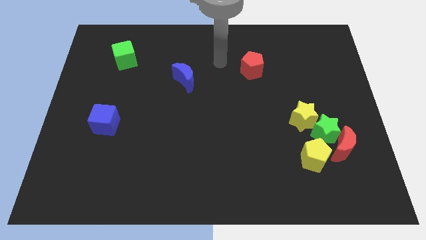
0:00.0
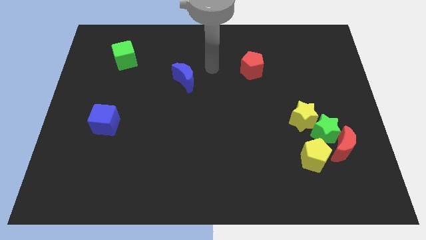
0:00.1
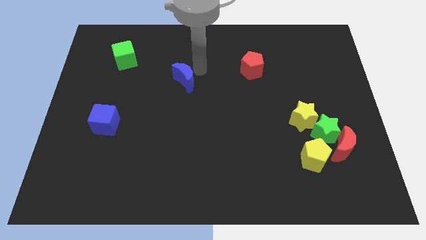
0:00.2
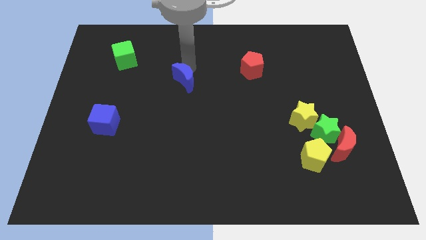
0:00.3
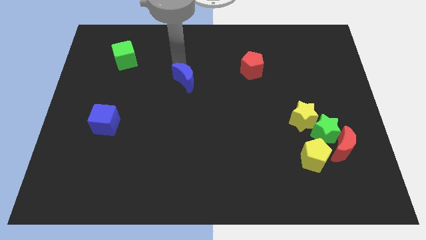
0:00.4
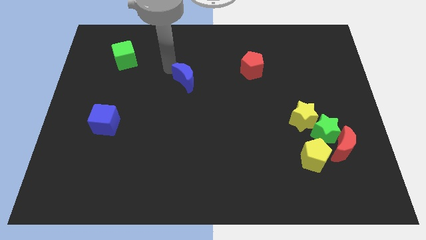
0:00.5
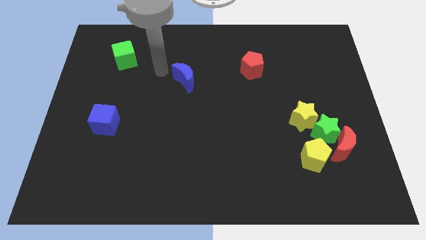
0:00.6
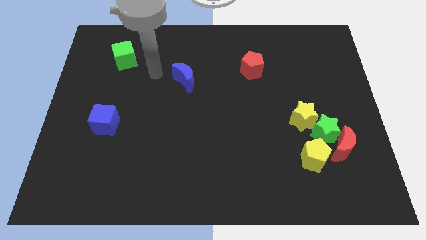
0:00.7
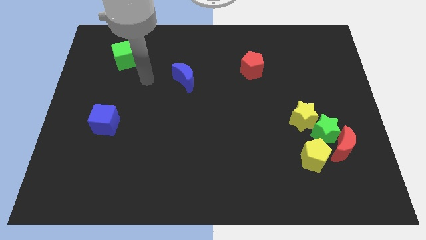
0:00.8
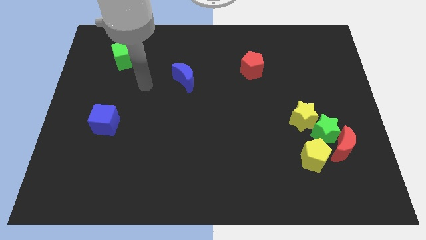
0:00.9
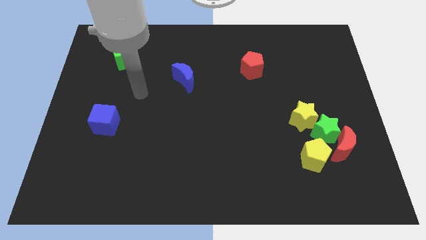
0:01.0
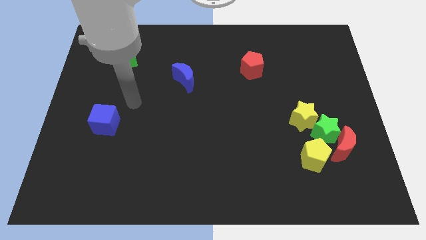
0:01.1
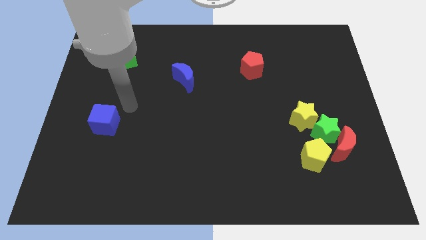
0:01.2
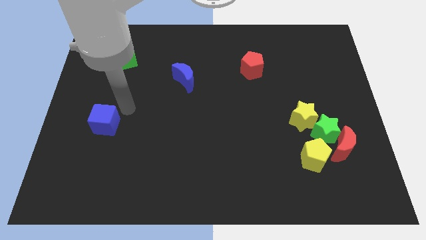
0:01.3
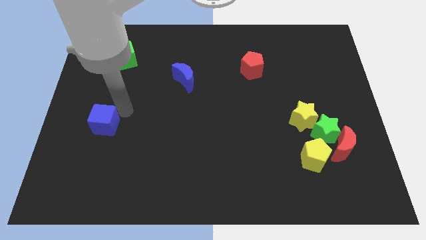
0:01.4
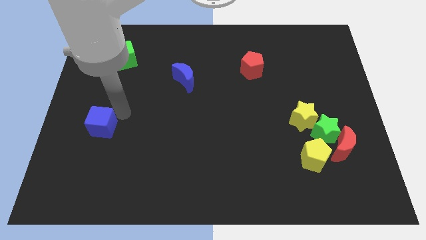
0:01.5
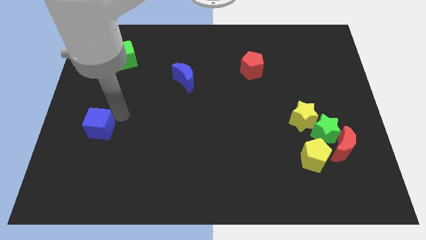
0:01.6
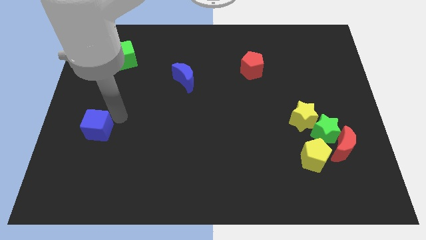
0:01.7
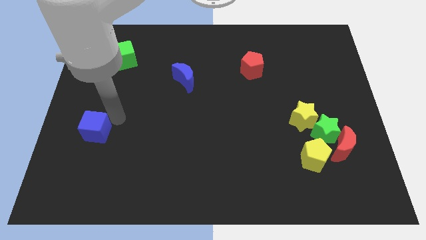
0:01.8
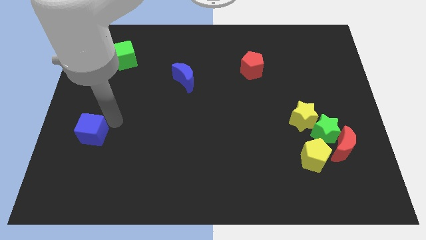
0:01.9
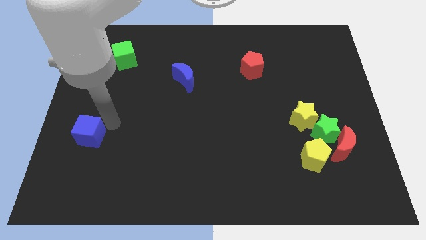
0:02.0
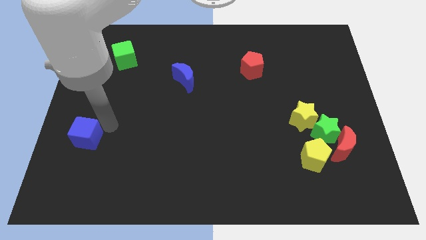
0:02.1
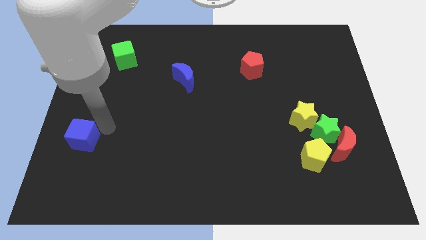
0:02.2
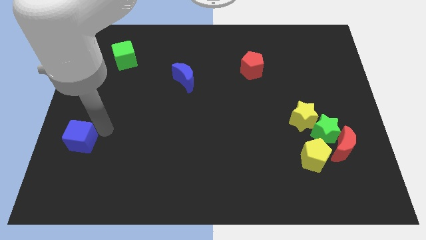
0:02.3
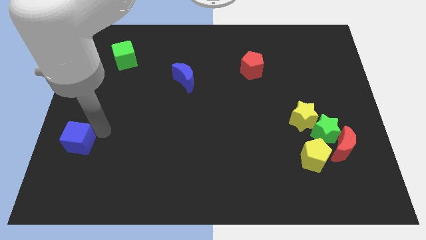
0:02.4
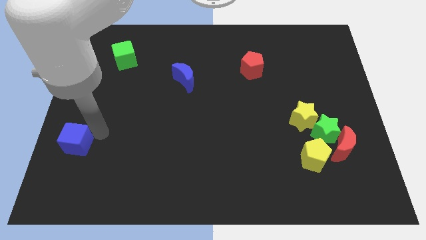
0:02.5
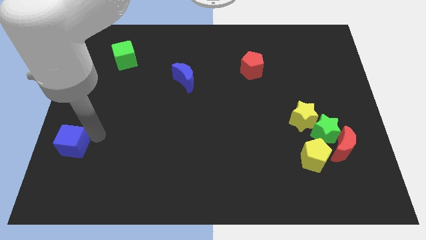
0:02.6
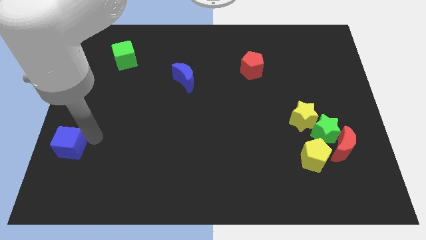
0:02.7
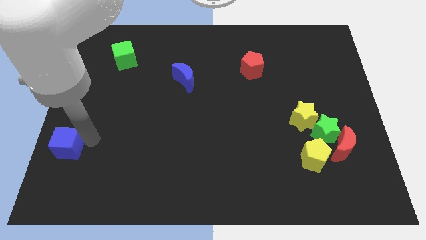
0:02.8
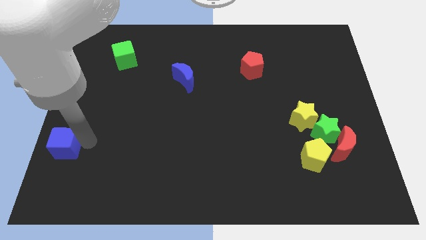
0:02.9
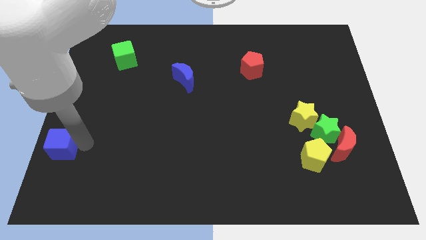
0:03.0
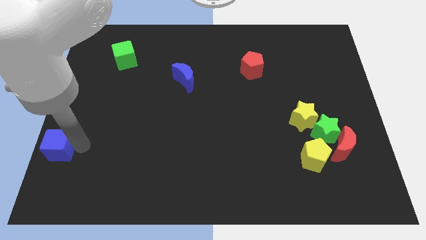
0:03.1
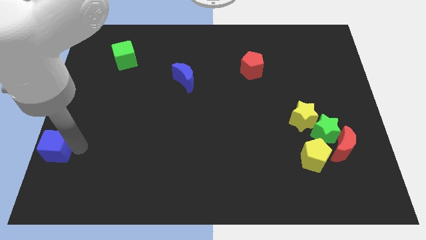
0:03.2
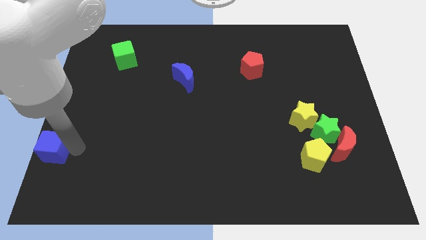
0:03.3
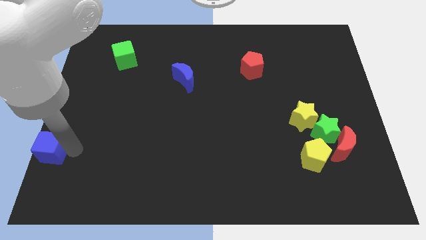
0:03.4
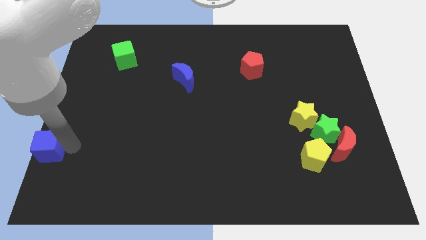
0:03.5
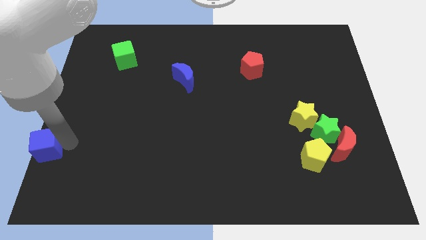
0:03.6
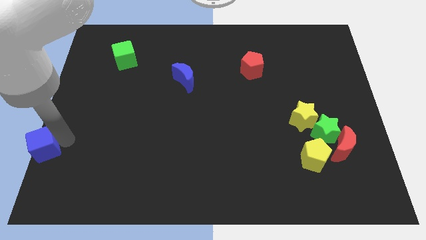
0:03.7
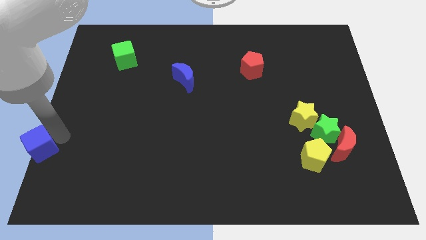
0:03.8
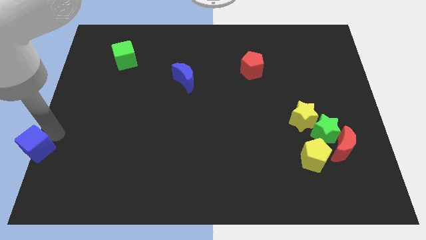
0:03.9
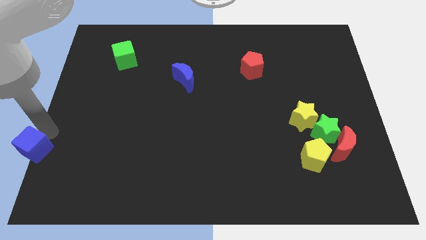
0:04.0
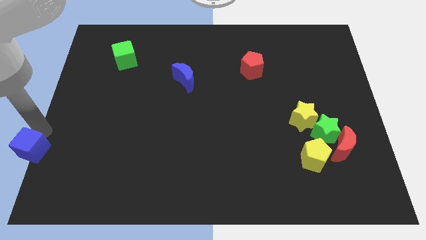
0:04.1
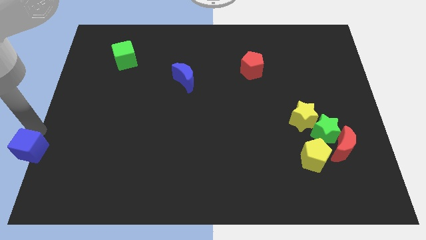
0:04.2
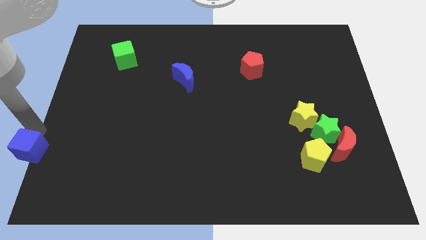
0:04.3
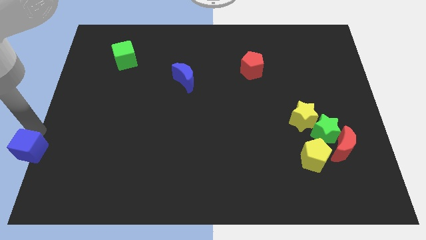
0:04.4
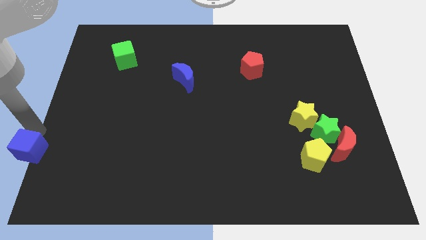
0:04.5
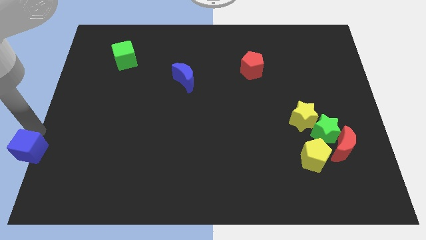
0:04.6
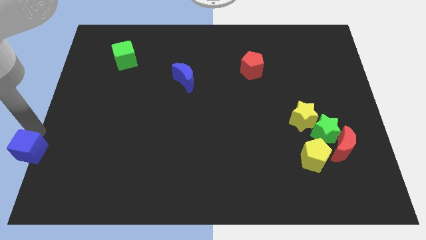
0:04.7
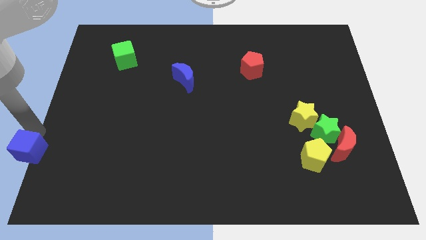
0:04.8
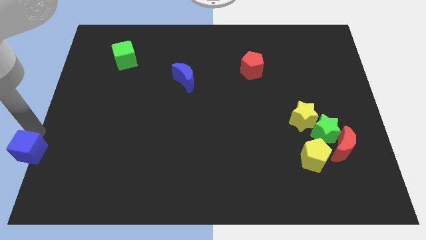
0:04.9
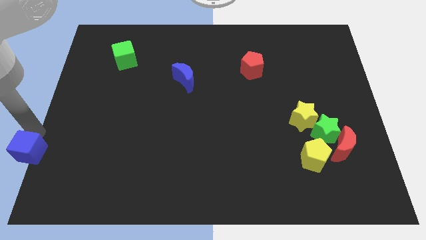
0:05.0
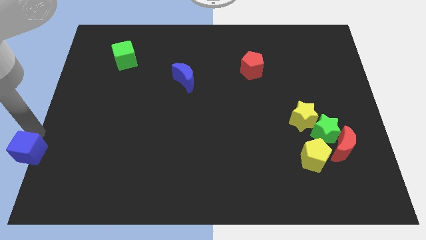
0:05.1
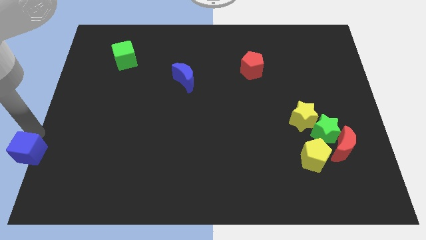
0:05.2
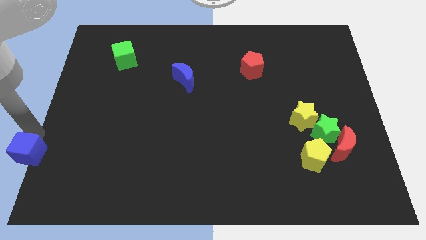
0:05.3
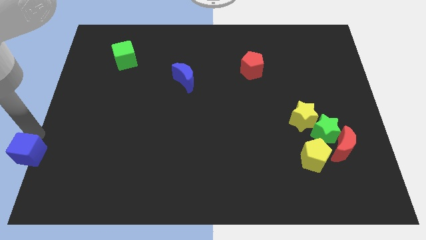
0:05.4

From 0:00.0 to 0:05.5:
slide the blue cube to the bottom left

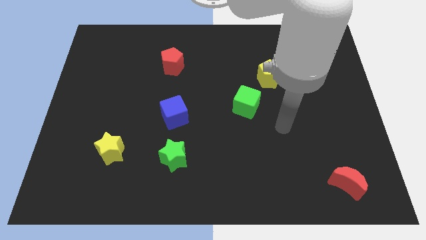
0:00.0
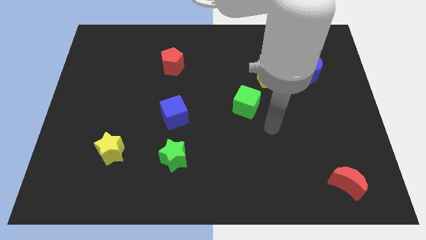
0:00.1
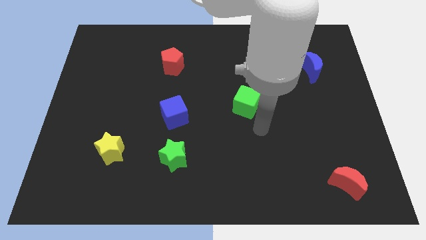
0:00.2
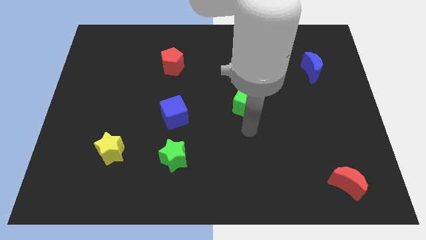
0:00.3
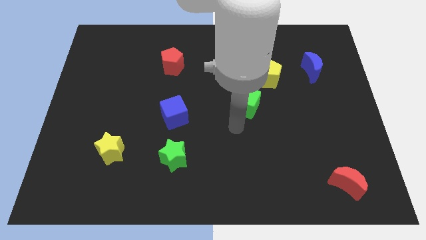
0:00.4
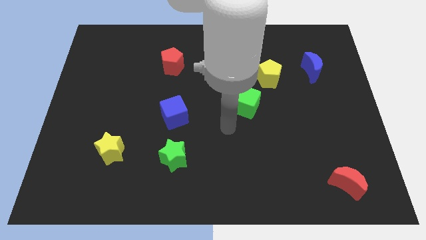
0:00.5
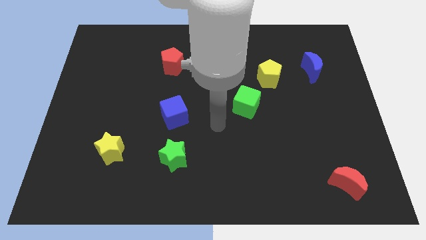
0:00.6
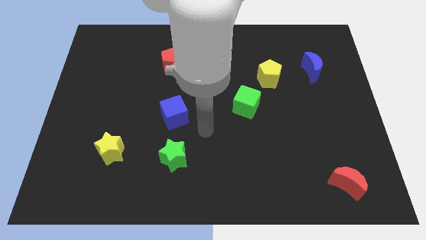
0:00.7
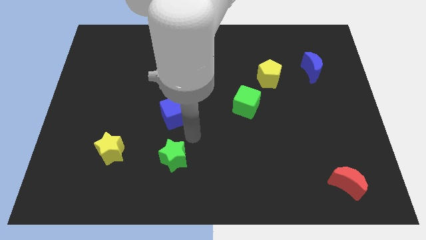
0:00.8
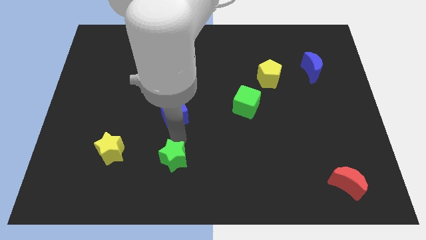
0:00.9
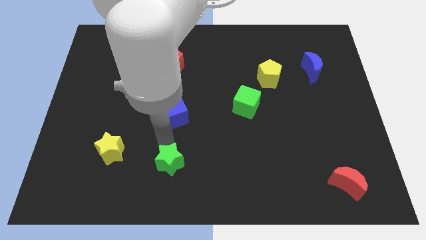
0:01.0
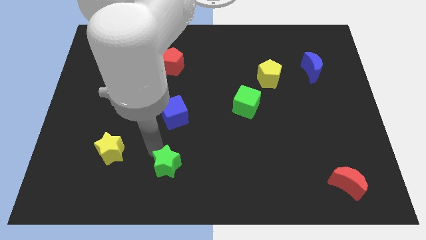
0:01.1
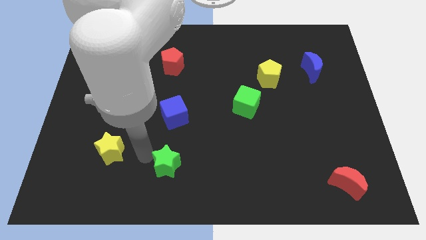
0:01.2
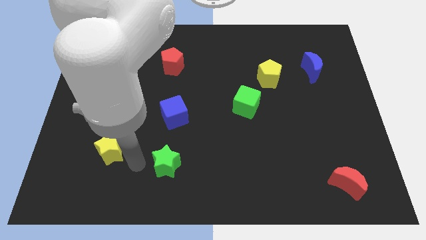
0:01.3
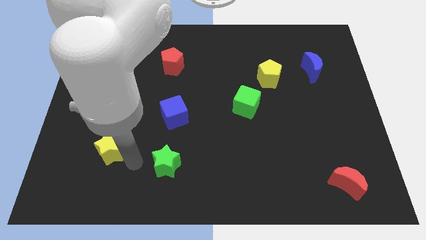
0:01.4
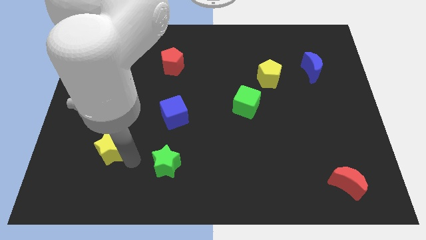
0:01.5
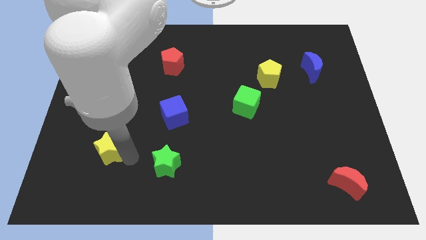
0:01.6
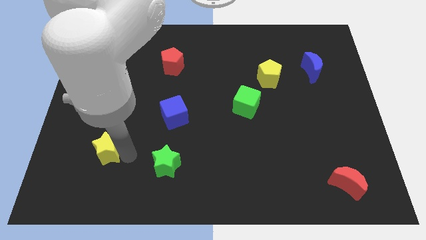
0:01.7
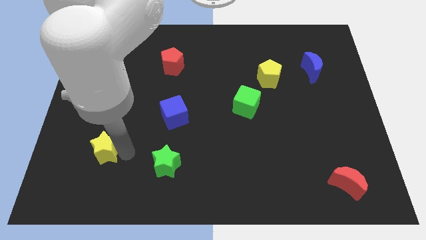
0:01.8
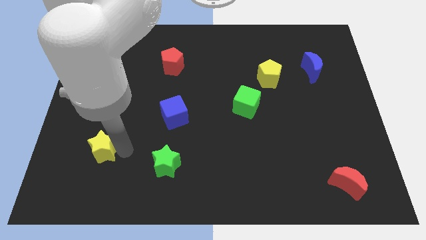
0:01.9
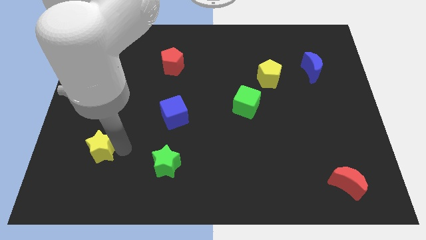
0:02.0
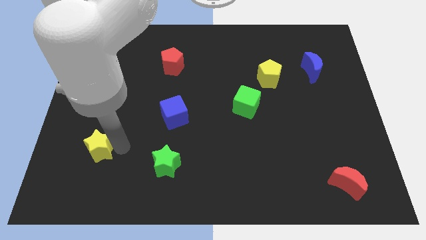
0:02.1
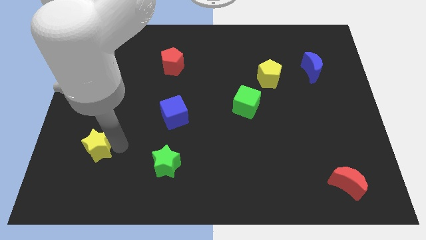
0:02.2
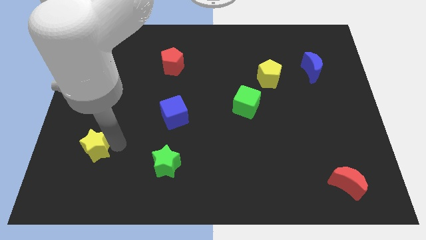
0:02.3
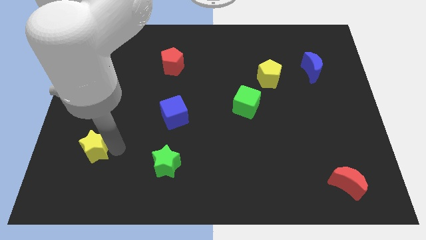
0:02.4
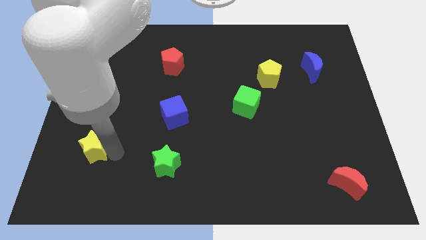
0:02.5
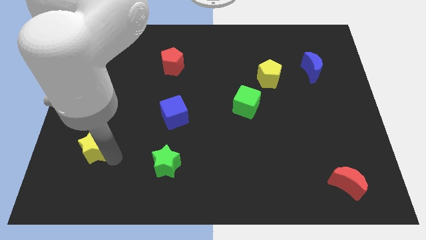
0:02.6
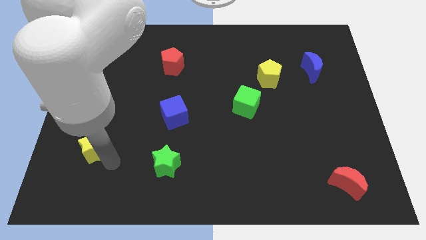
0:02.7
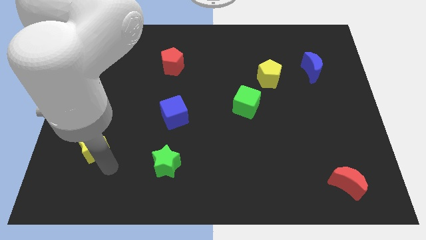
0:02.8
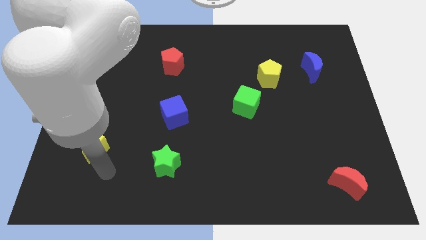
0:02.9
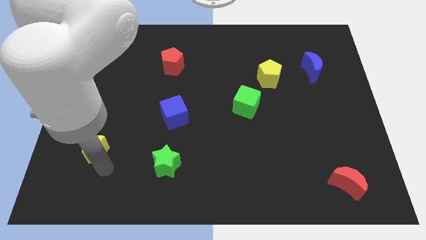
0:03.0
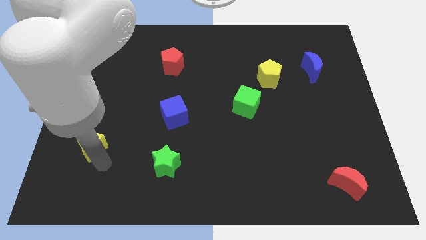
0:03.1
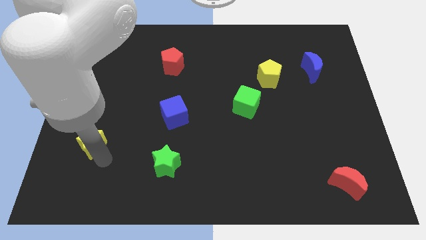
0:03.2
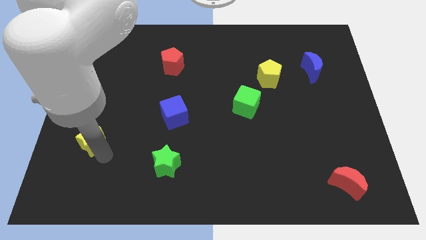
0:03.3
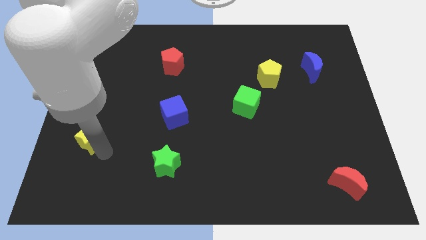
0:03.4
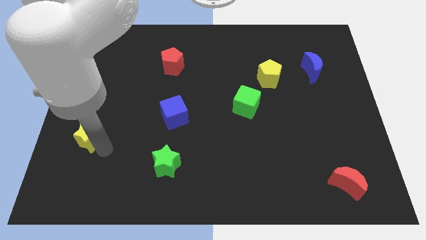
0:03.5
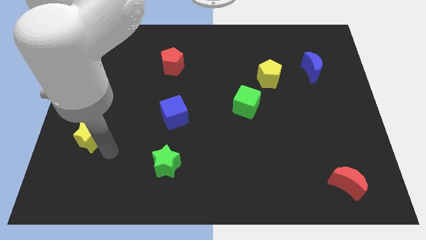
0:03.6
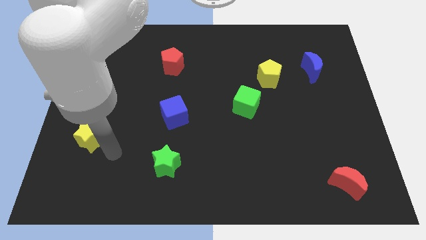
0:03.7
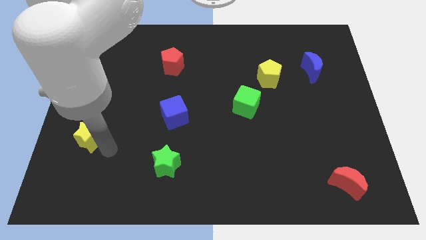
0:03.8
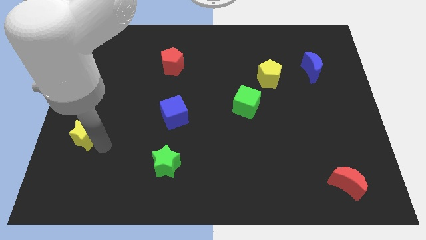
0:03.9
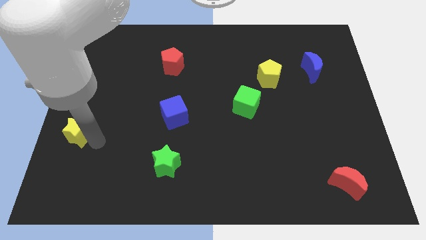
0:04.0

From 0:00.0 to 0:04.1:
push the yellow star to the left side
